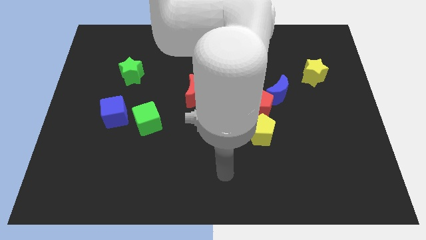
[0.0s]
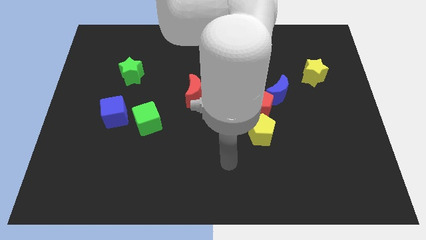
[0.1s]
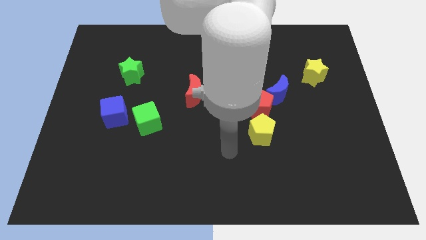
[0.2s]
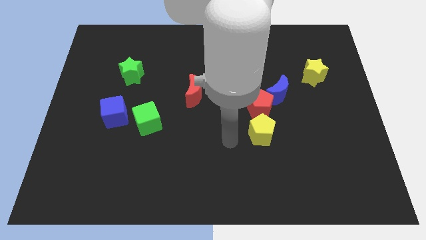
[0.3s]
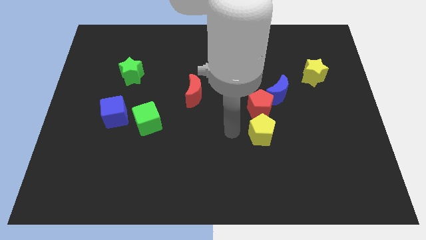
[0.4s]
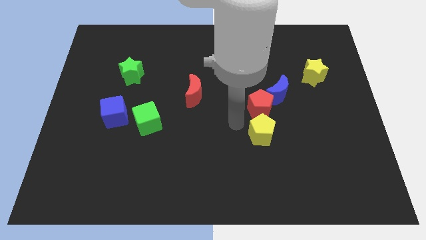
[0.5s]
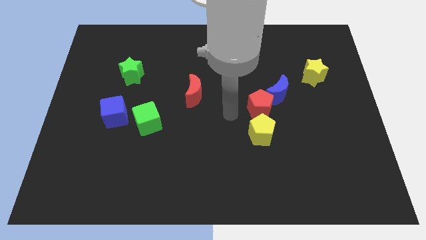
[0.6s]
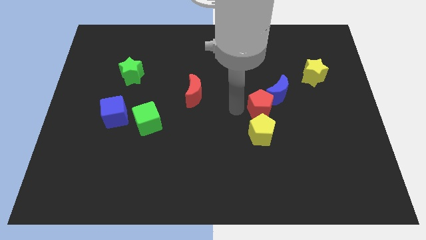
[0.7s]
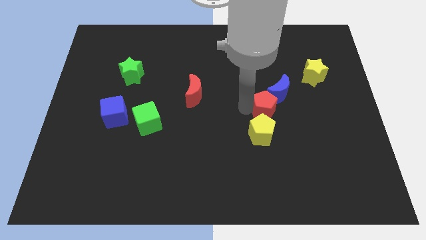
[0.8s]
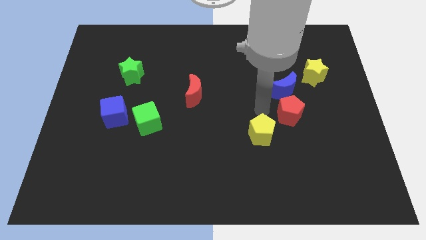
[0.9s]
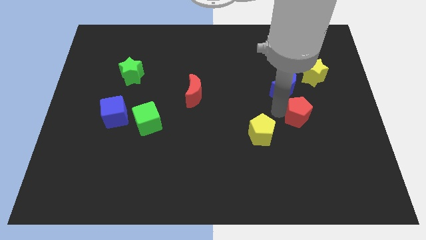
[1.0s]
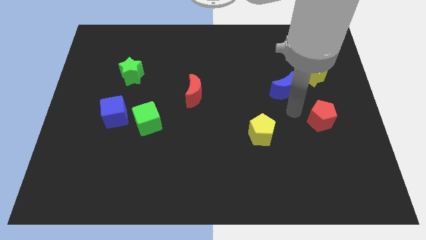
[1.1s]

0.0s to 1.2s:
pull the blue moon apart from the red pentagon

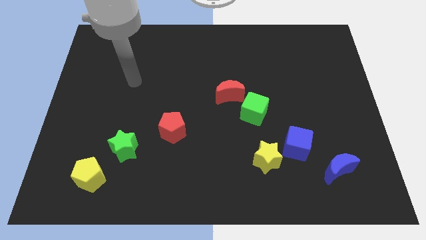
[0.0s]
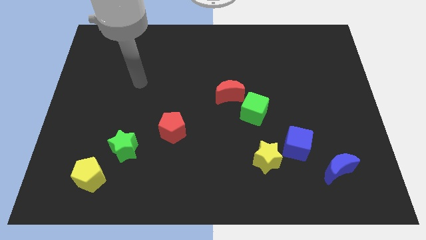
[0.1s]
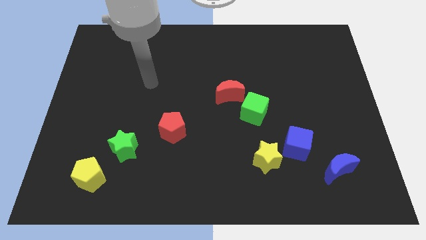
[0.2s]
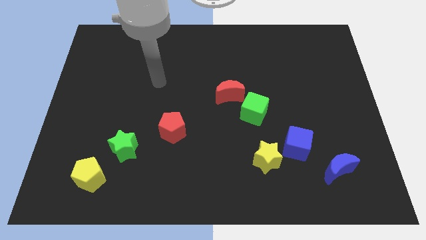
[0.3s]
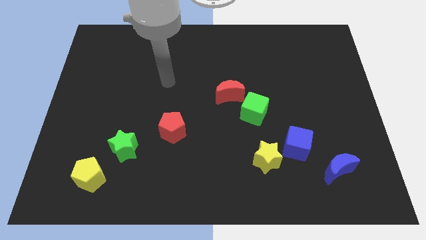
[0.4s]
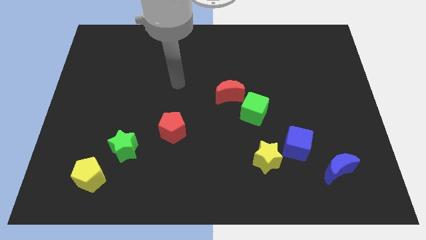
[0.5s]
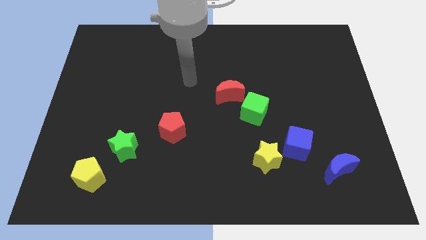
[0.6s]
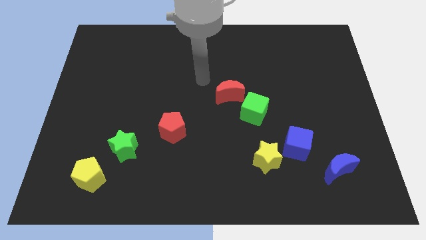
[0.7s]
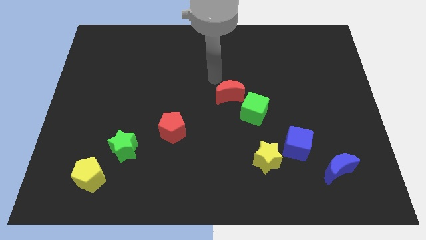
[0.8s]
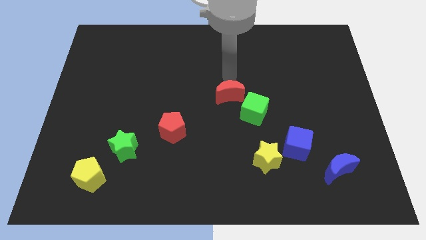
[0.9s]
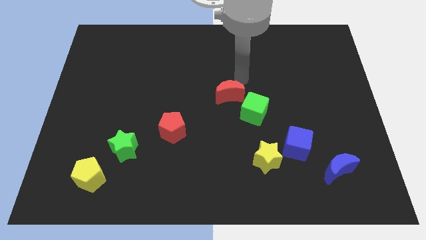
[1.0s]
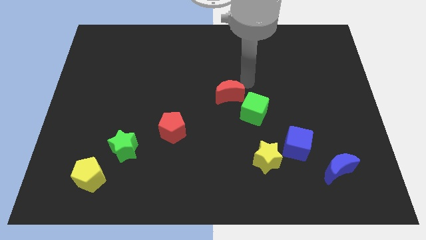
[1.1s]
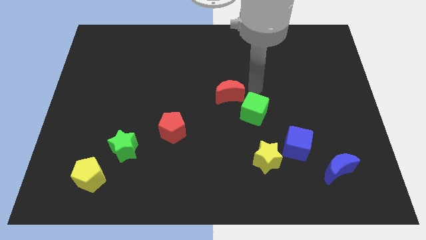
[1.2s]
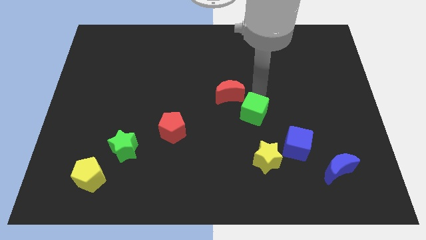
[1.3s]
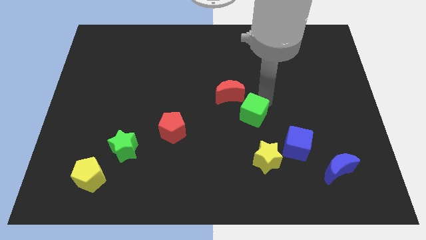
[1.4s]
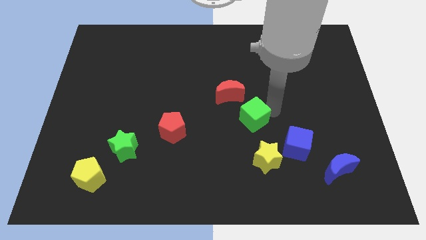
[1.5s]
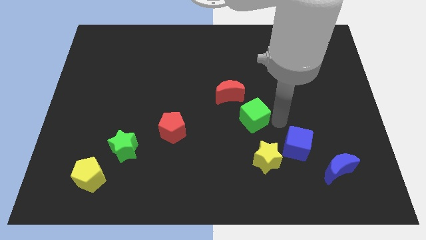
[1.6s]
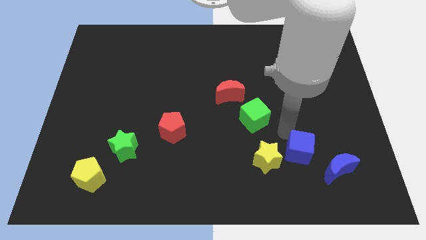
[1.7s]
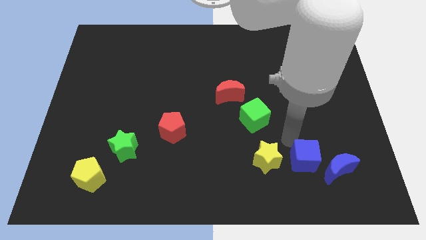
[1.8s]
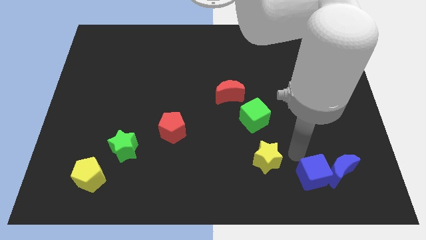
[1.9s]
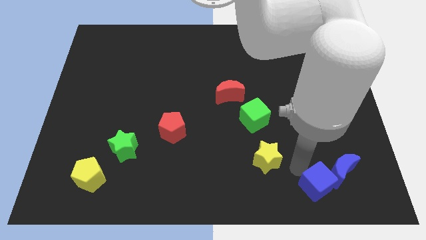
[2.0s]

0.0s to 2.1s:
move the yellow star away from the blue cube

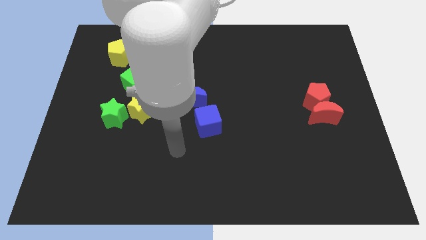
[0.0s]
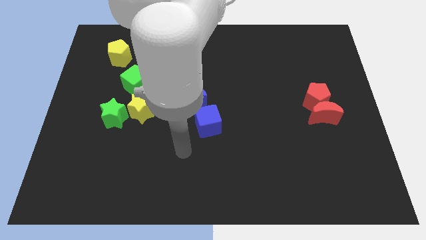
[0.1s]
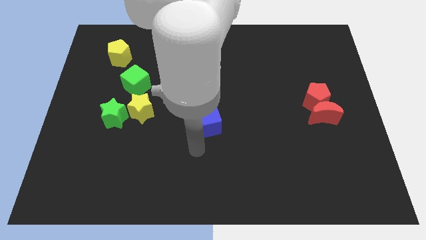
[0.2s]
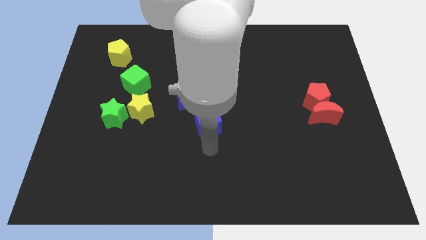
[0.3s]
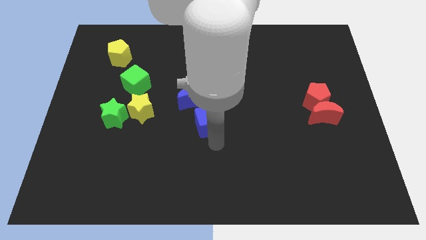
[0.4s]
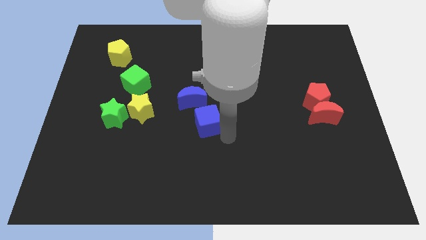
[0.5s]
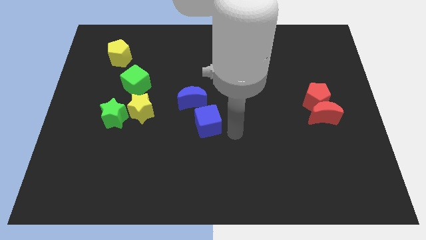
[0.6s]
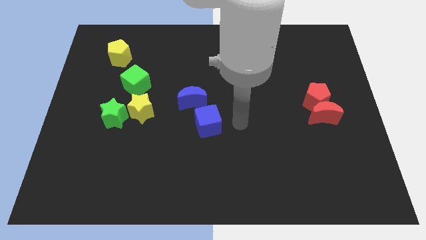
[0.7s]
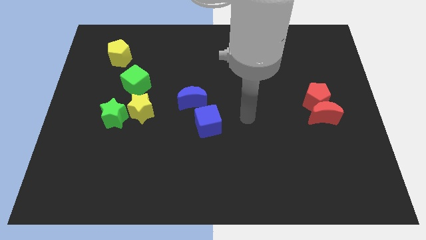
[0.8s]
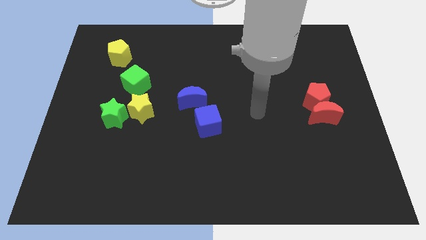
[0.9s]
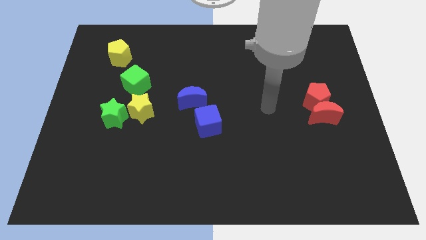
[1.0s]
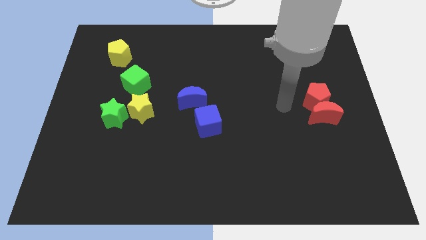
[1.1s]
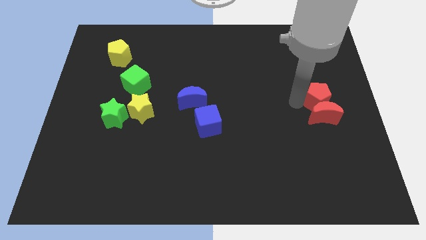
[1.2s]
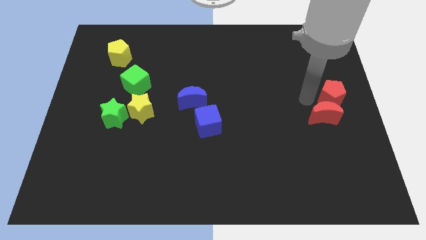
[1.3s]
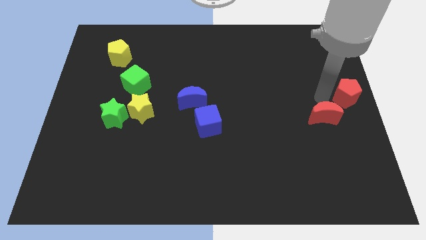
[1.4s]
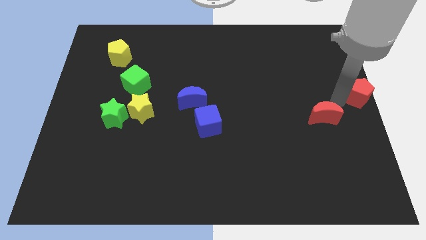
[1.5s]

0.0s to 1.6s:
move the red moon away from the red pentagon

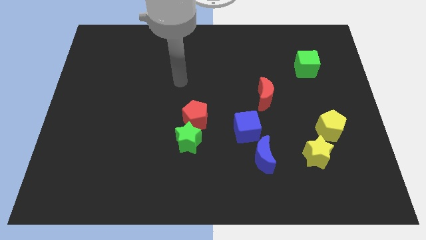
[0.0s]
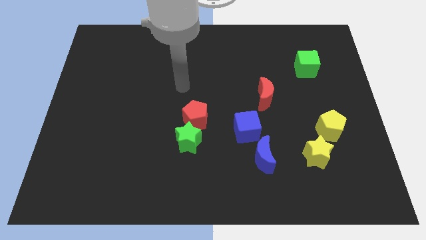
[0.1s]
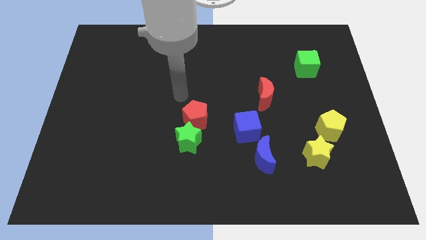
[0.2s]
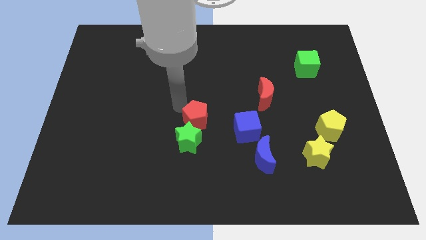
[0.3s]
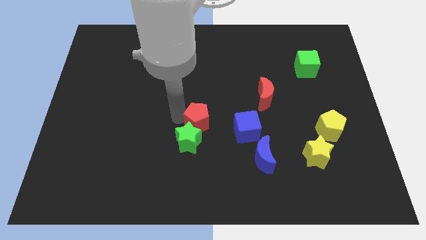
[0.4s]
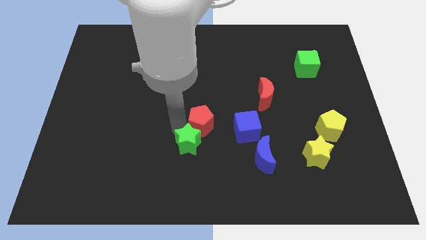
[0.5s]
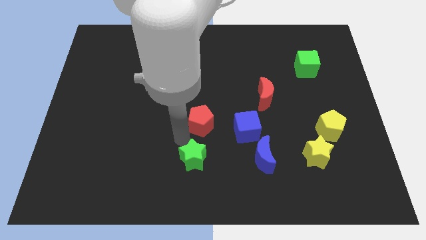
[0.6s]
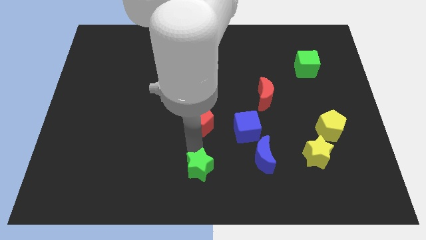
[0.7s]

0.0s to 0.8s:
move the red pentagon away from the green star

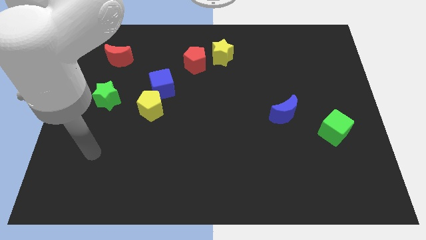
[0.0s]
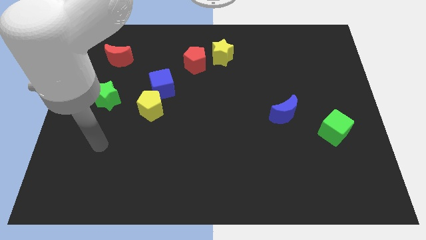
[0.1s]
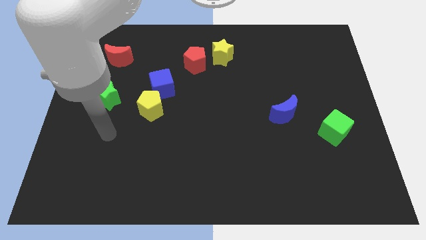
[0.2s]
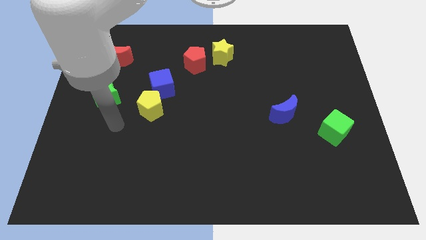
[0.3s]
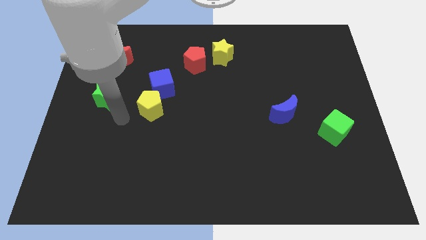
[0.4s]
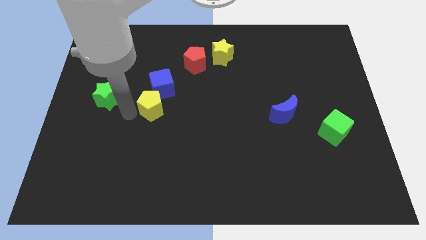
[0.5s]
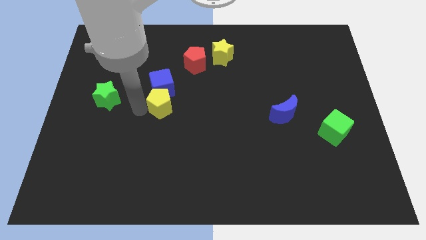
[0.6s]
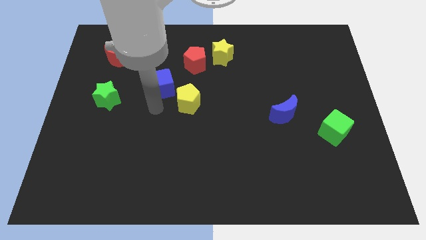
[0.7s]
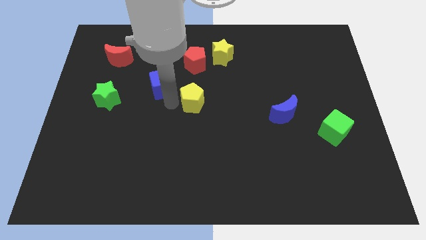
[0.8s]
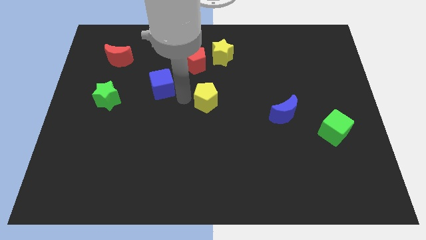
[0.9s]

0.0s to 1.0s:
separate the blue cube from the yellow pentagon

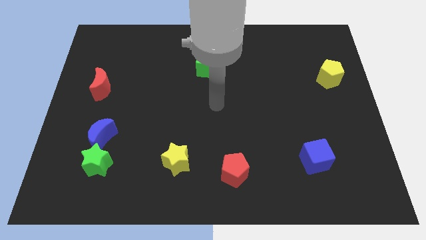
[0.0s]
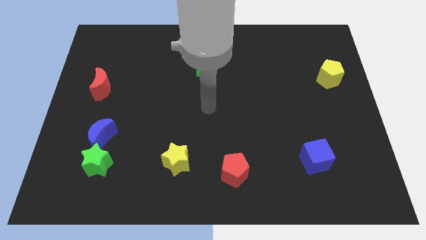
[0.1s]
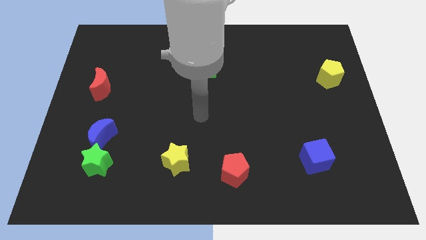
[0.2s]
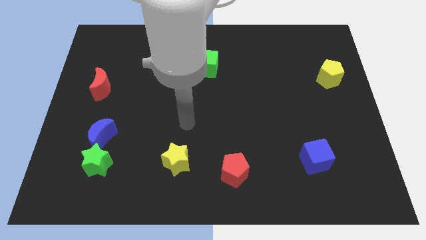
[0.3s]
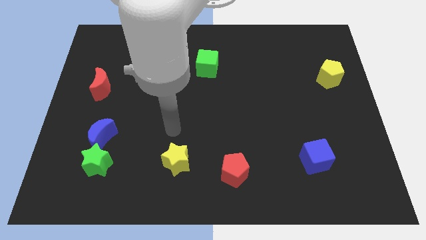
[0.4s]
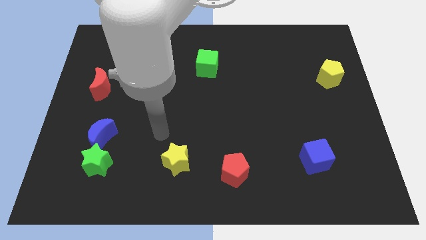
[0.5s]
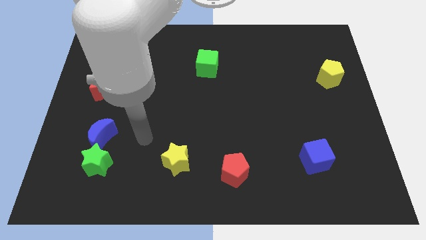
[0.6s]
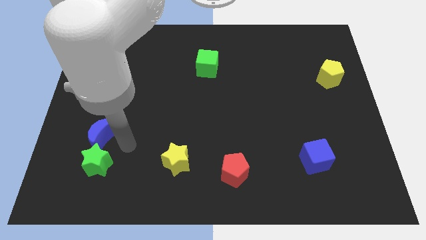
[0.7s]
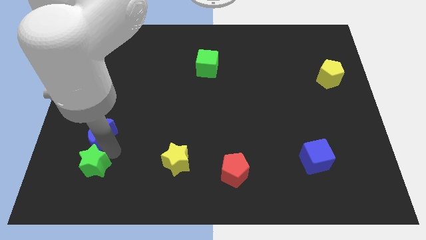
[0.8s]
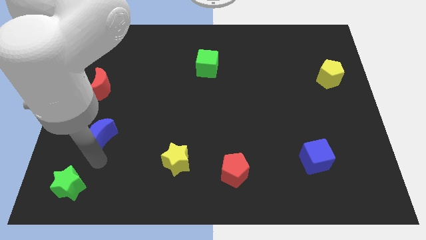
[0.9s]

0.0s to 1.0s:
pull the blue moon apart from the green star

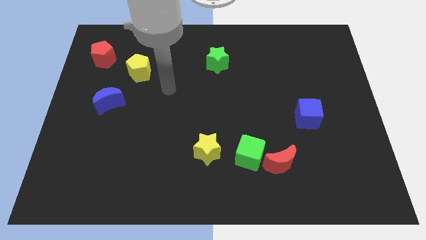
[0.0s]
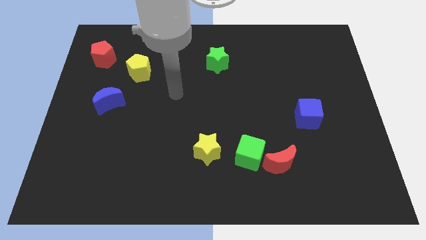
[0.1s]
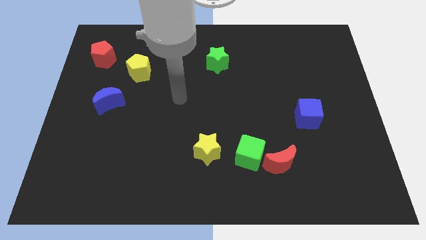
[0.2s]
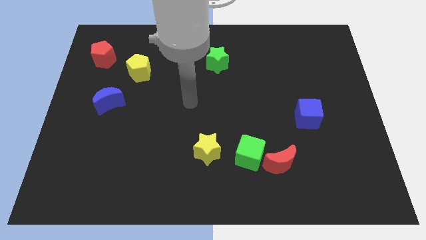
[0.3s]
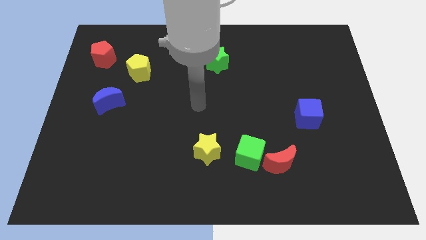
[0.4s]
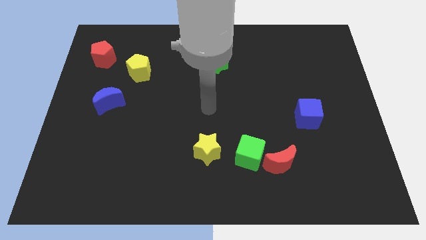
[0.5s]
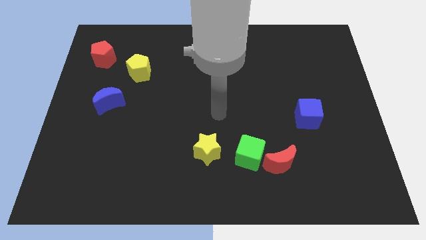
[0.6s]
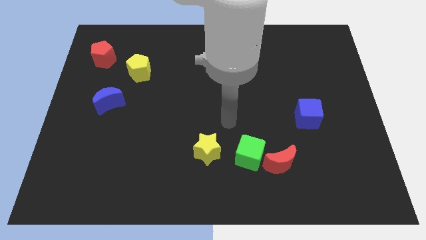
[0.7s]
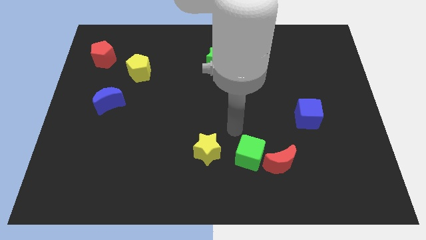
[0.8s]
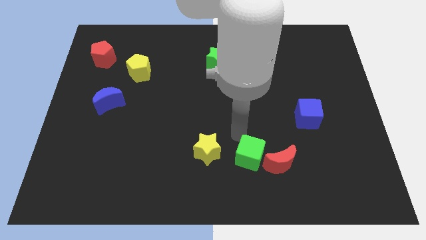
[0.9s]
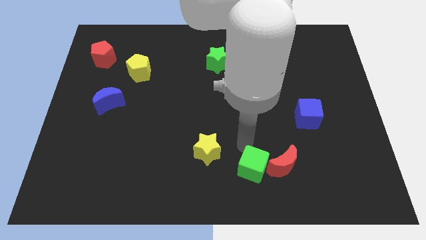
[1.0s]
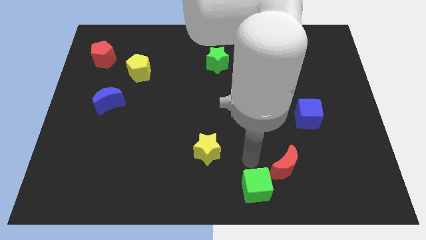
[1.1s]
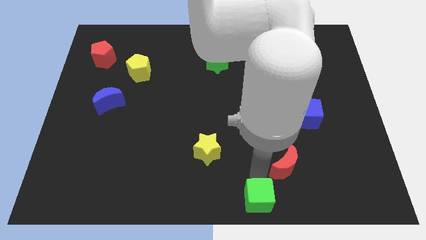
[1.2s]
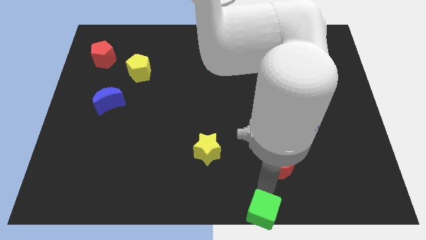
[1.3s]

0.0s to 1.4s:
pull the red moon apart from the green cube

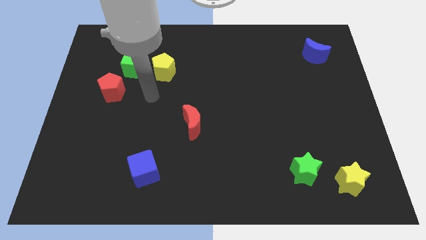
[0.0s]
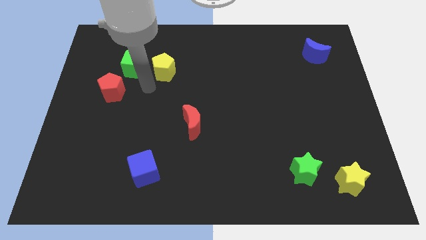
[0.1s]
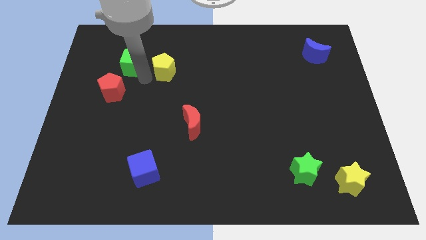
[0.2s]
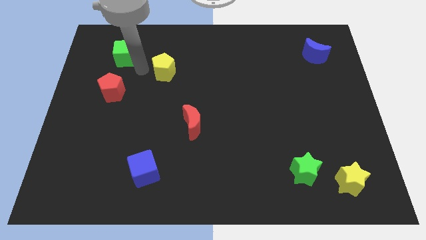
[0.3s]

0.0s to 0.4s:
separate the yellow pentagon from the green cube
